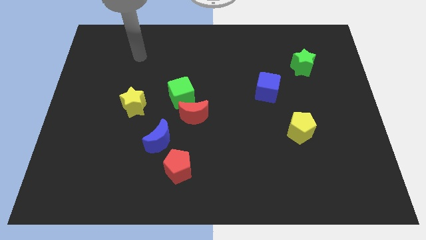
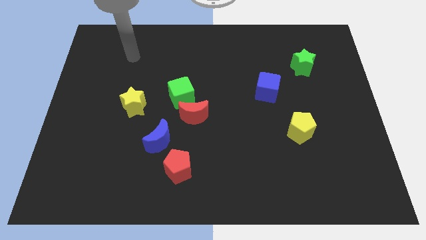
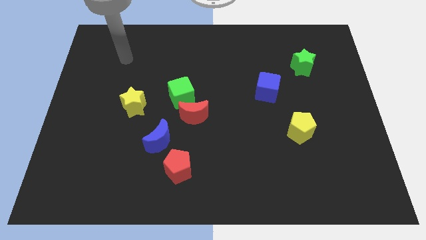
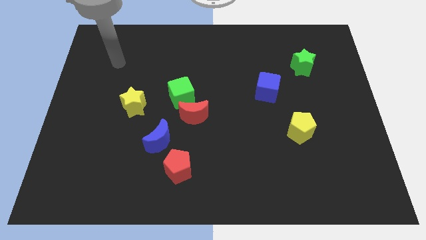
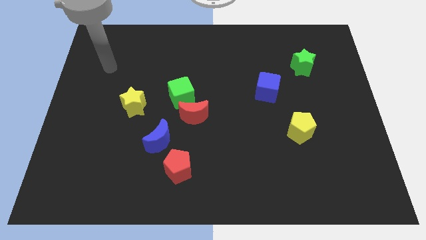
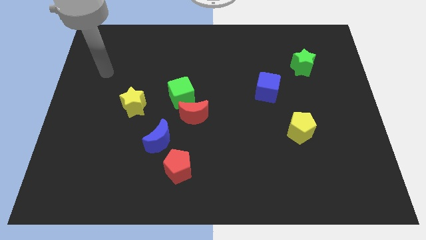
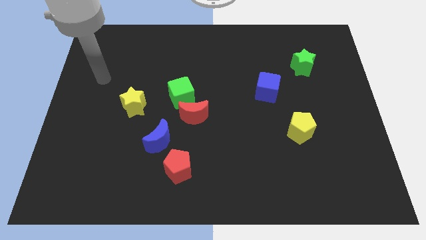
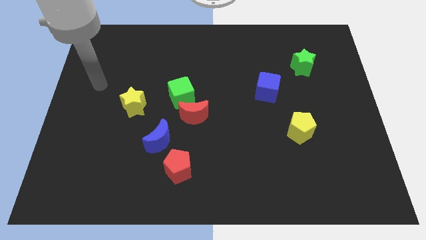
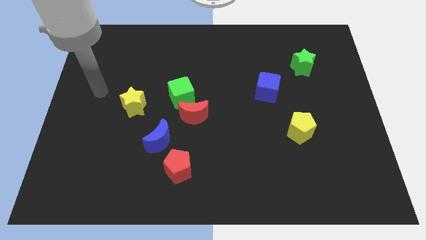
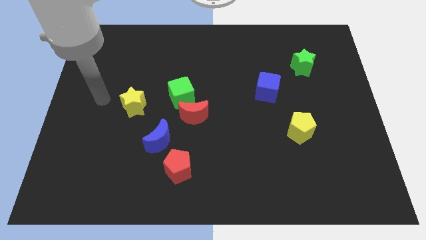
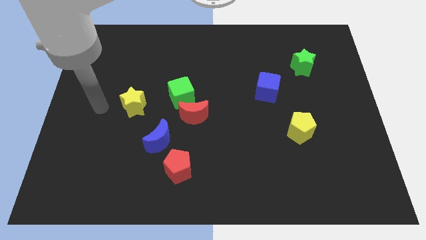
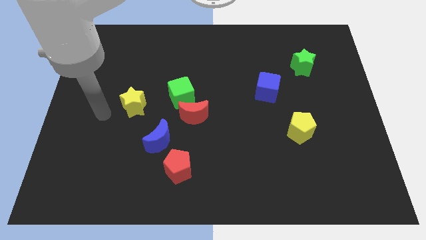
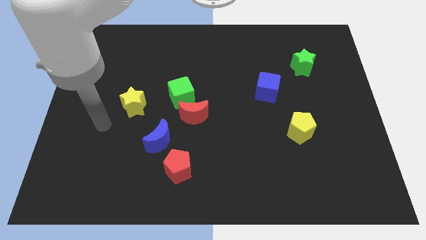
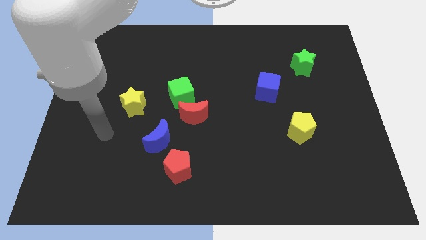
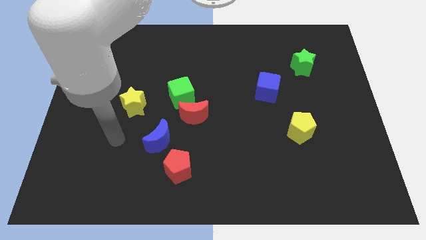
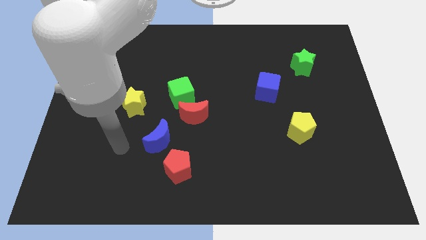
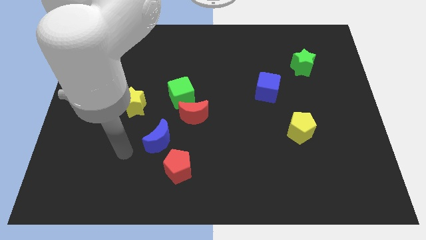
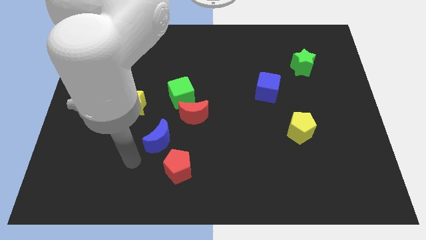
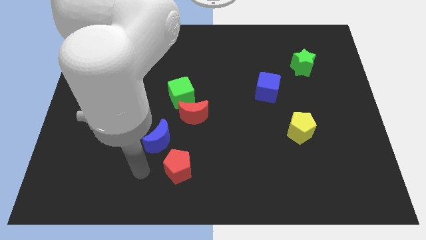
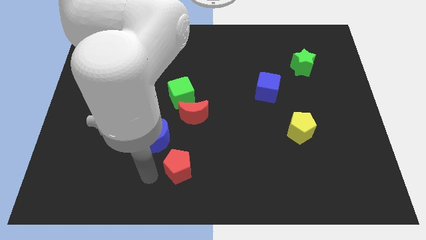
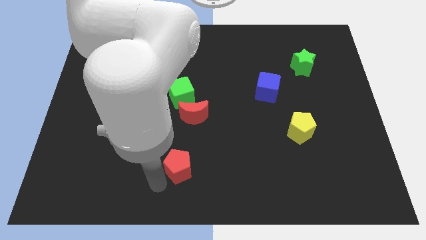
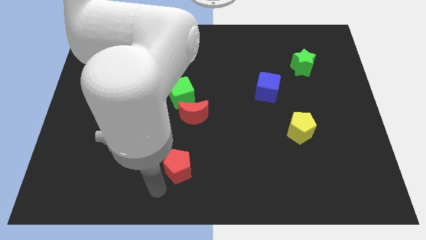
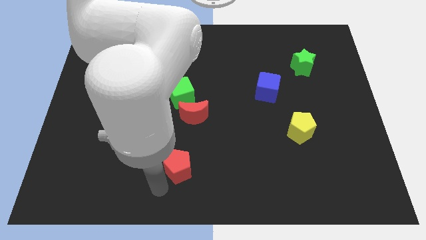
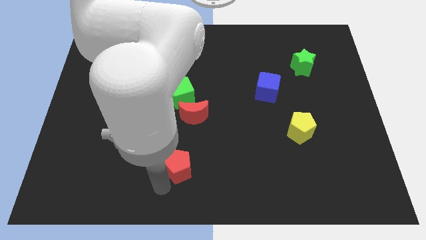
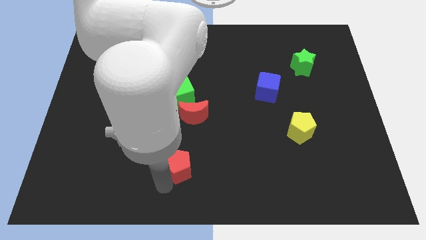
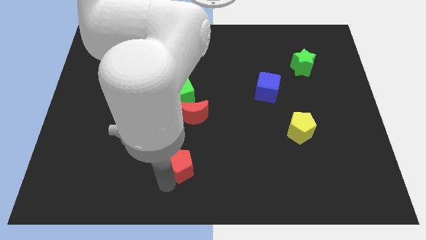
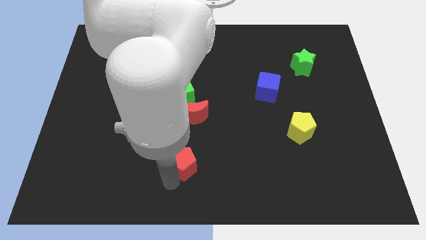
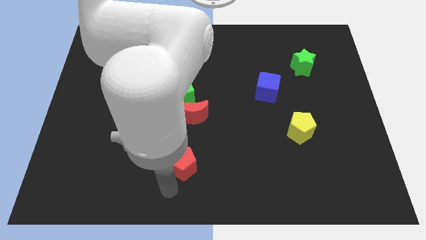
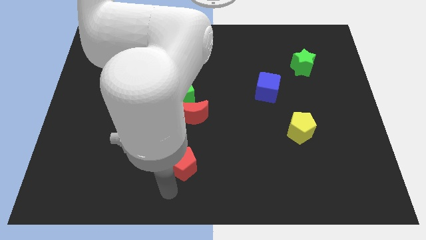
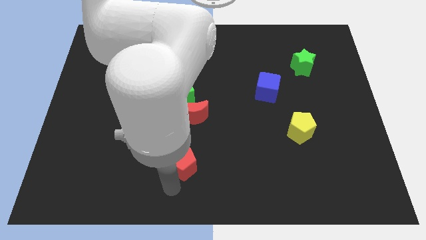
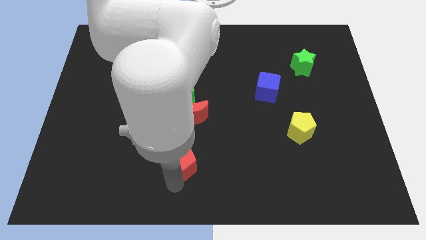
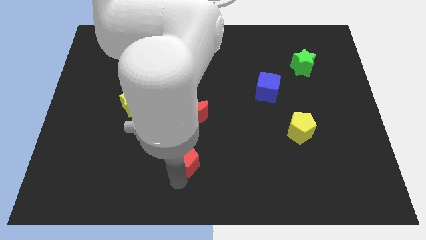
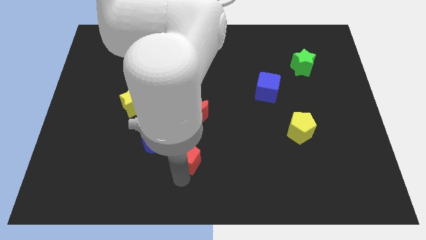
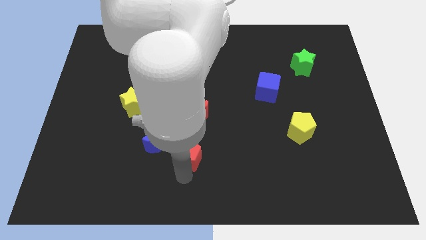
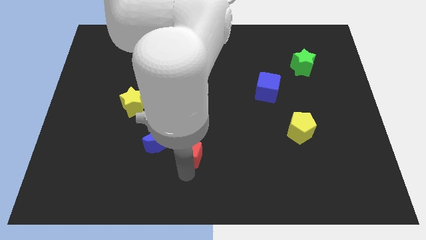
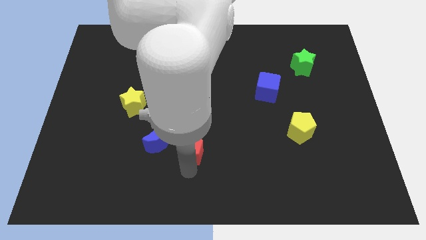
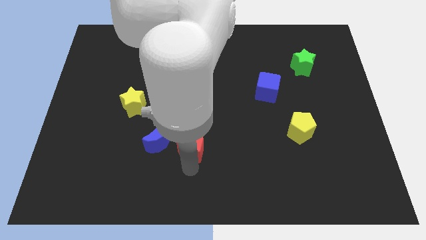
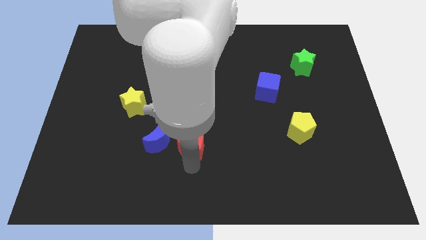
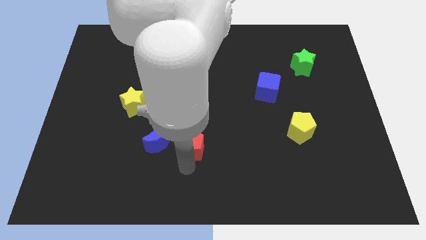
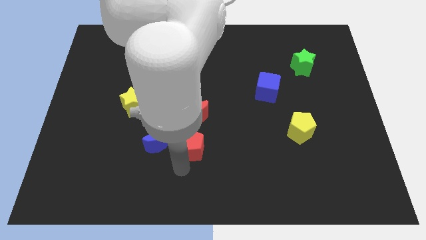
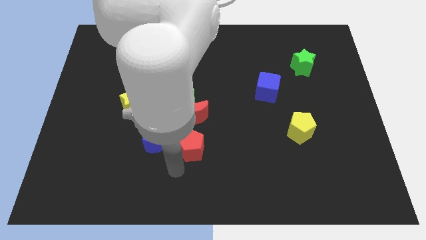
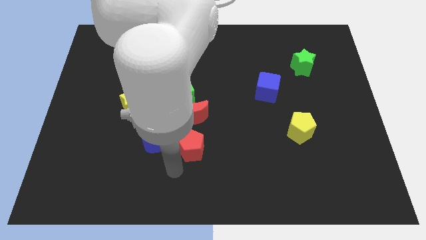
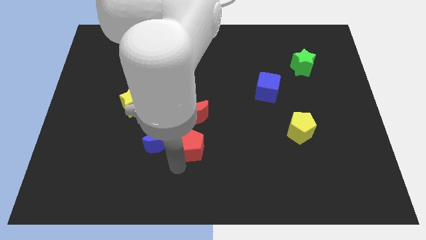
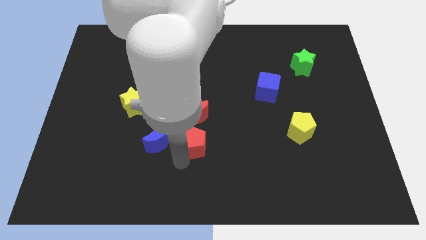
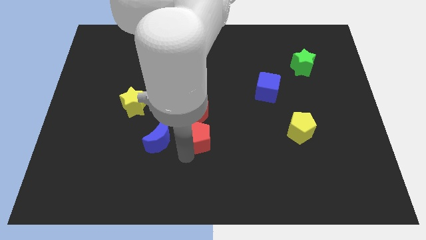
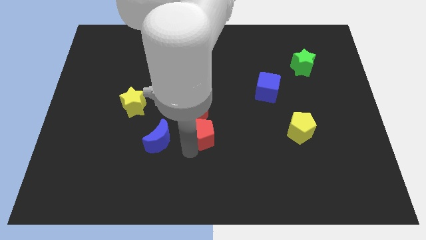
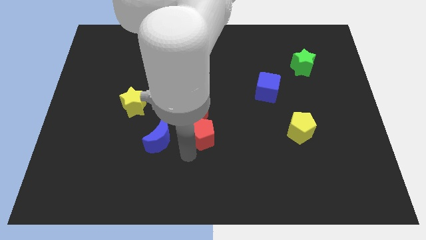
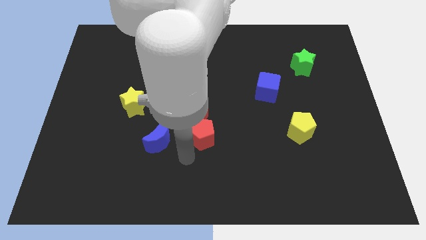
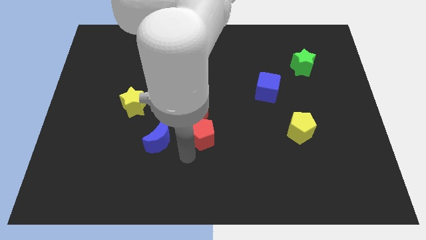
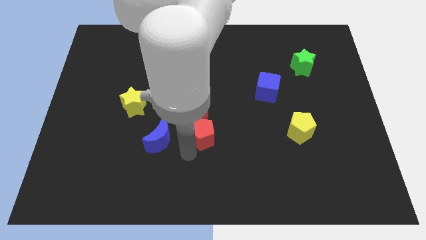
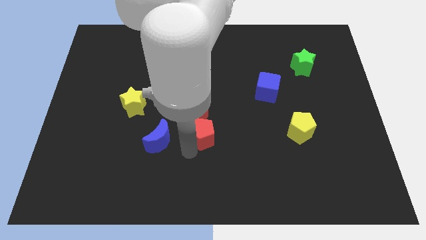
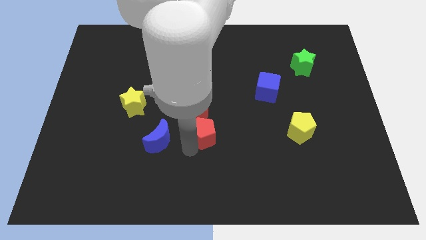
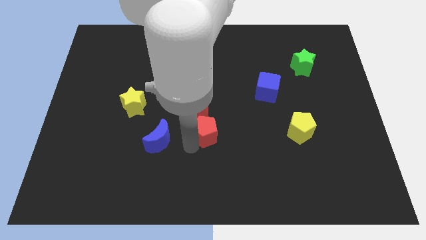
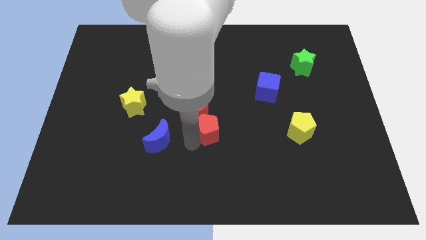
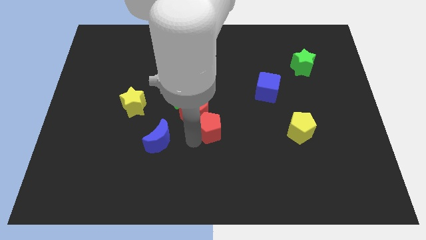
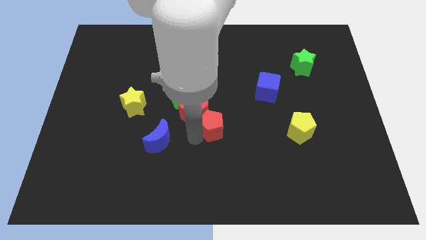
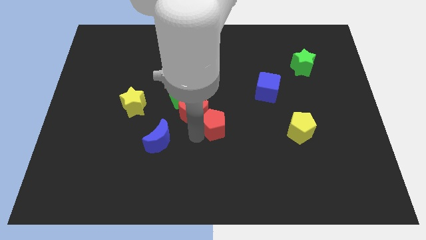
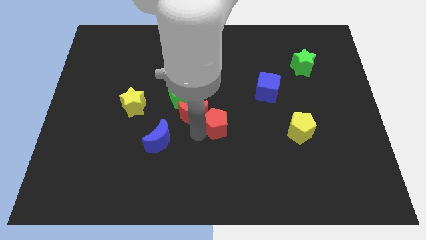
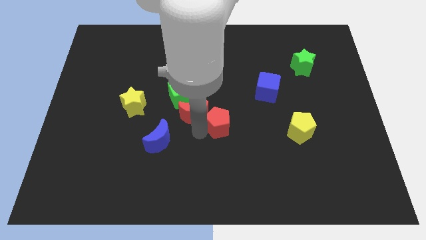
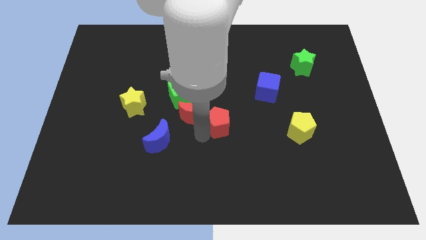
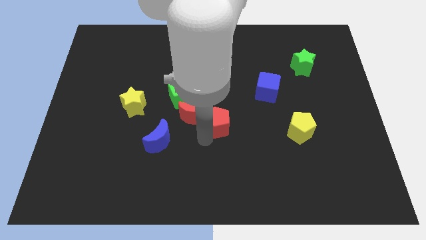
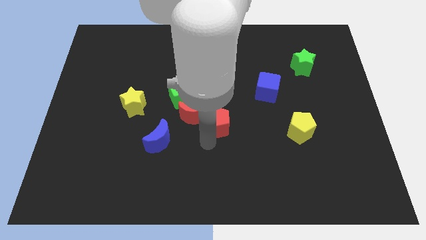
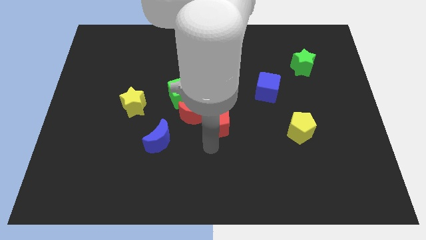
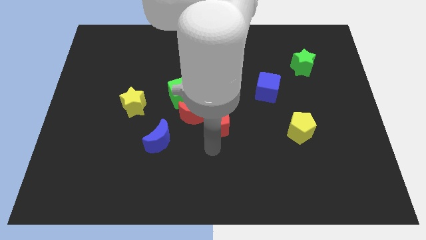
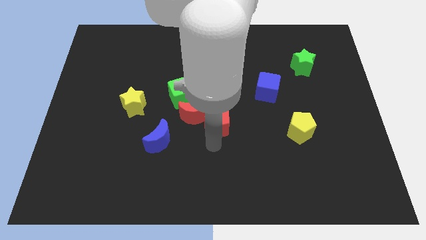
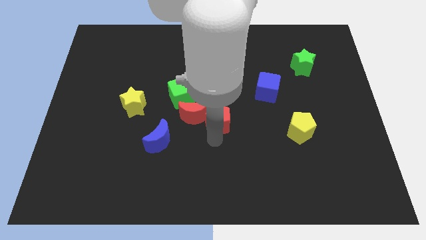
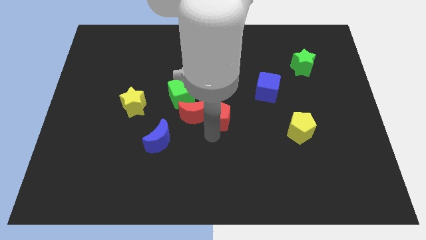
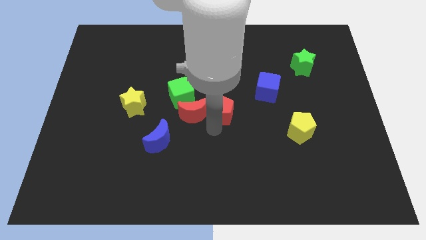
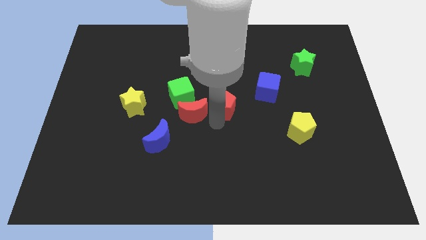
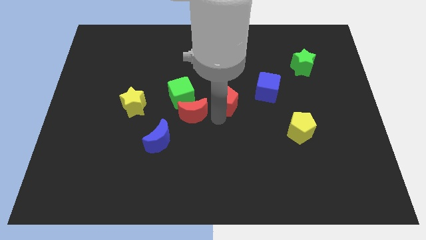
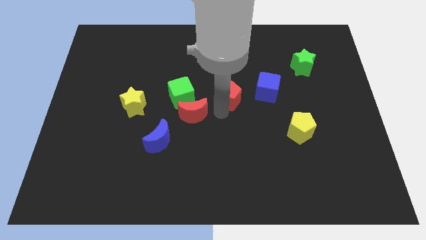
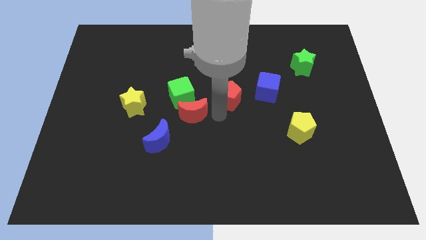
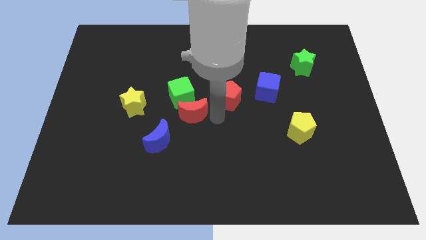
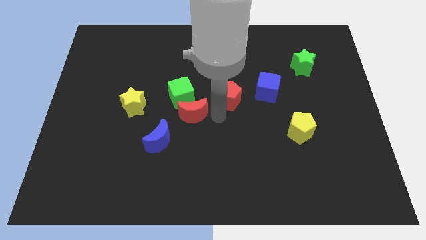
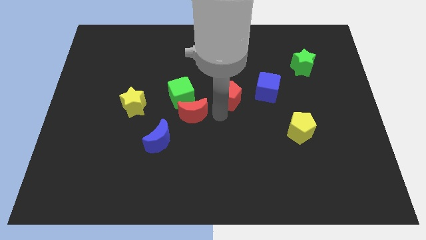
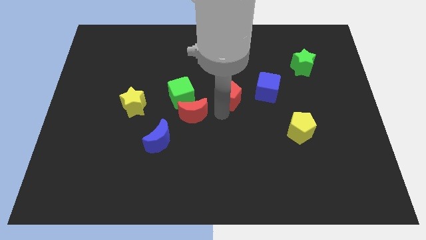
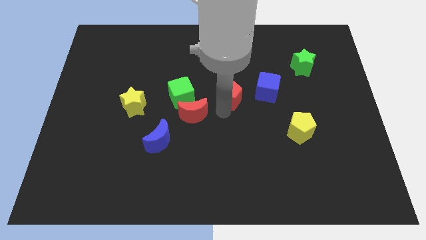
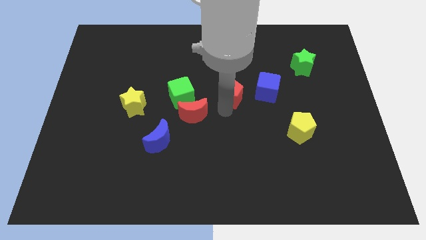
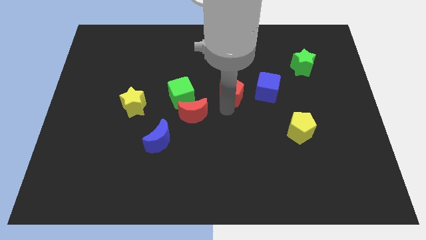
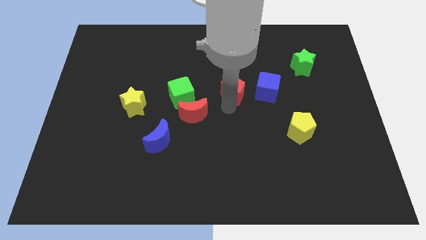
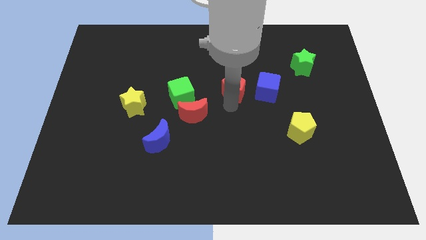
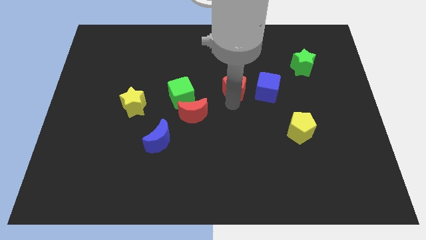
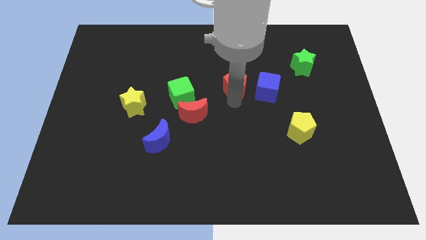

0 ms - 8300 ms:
push the red pentagon diagonally up and to the left of the blue cube
